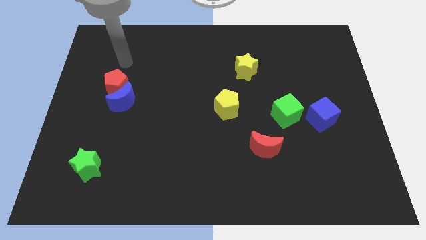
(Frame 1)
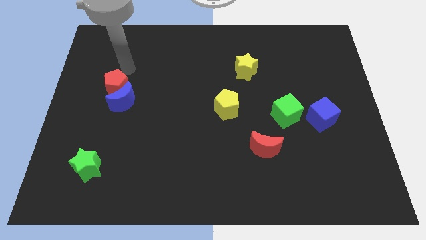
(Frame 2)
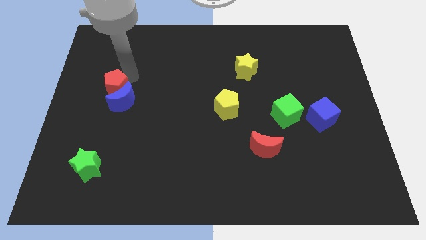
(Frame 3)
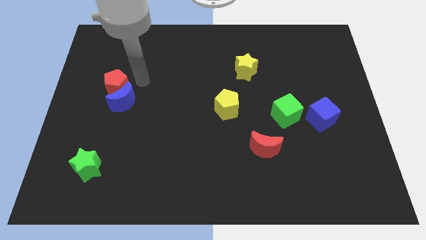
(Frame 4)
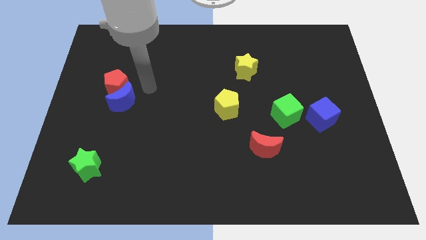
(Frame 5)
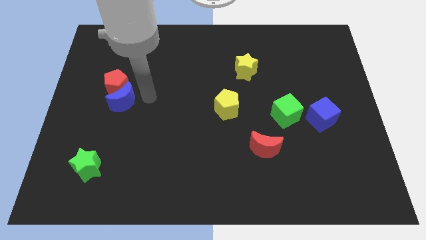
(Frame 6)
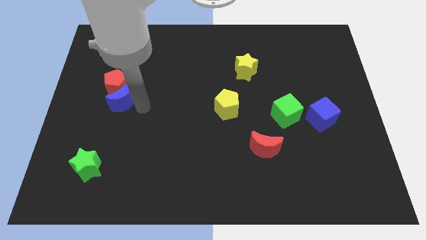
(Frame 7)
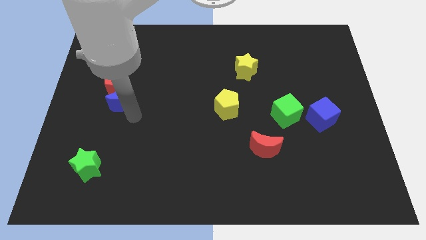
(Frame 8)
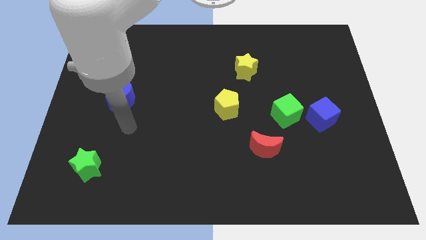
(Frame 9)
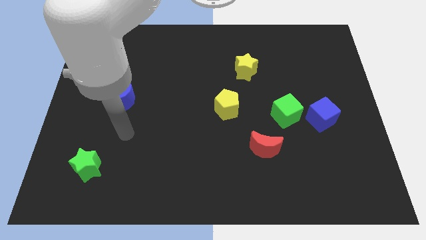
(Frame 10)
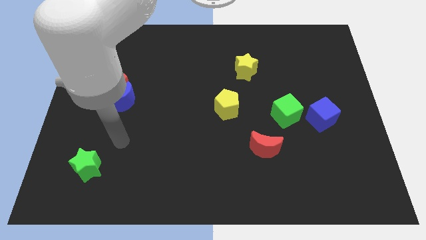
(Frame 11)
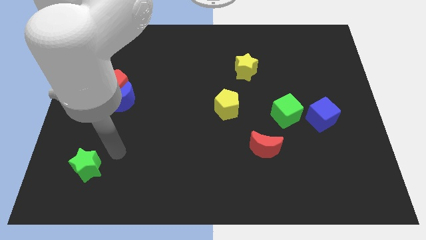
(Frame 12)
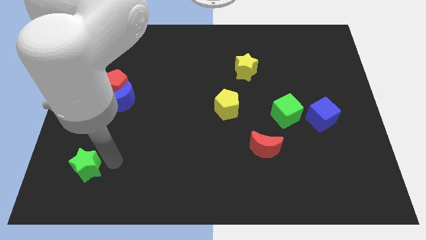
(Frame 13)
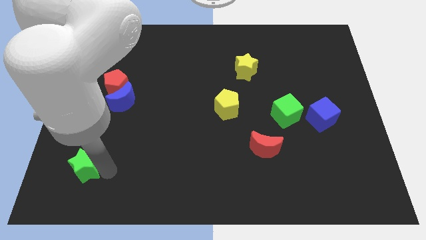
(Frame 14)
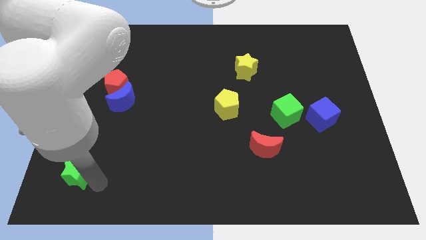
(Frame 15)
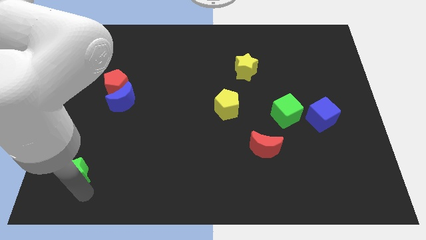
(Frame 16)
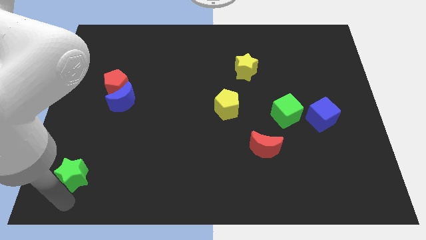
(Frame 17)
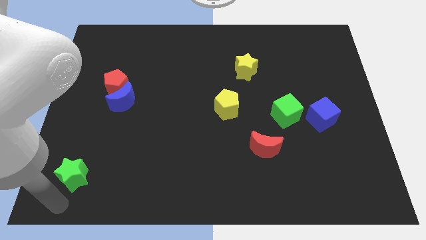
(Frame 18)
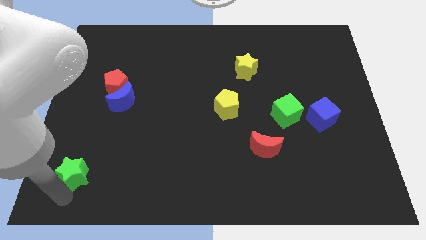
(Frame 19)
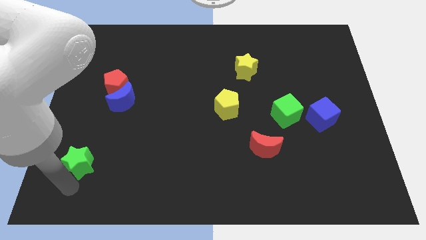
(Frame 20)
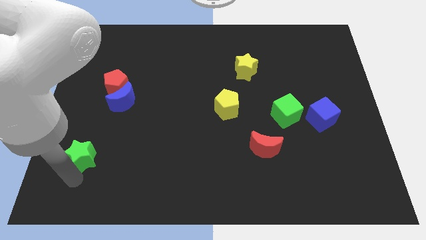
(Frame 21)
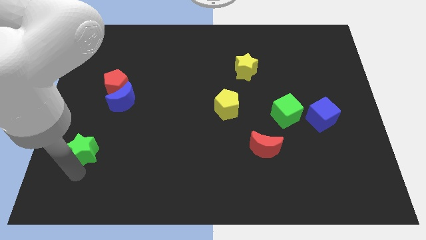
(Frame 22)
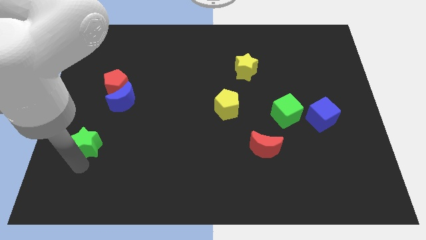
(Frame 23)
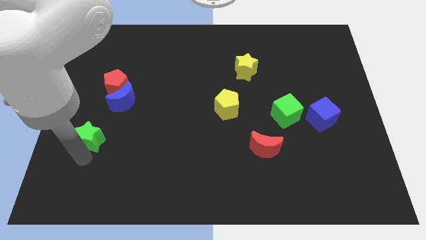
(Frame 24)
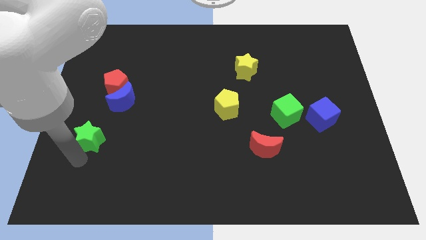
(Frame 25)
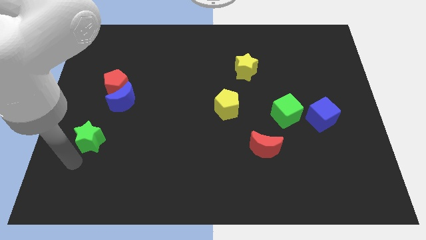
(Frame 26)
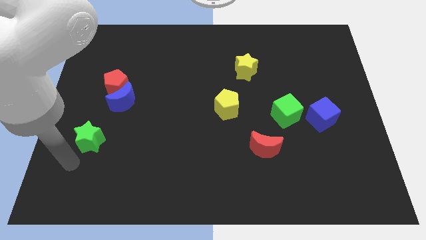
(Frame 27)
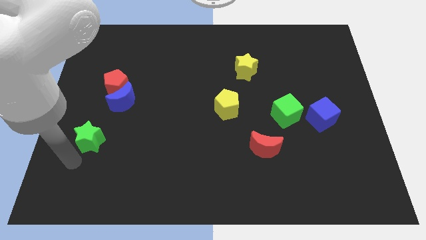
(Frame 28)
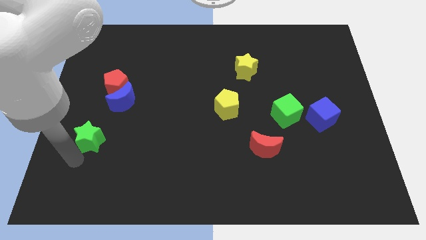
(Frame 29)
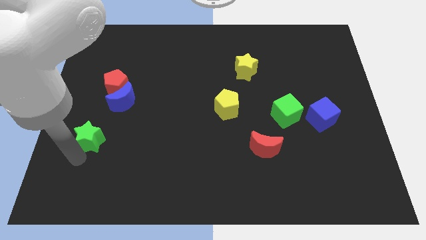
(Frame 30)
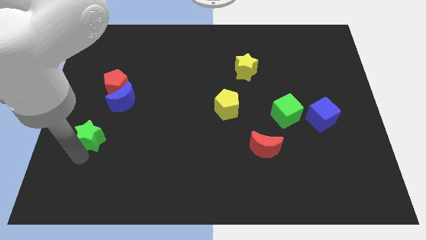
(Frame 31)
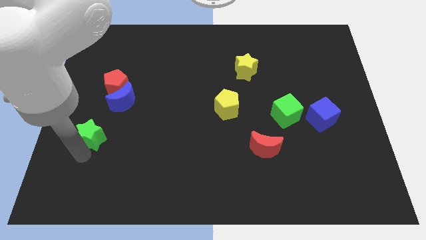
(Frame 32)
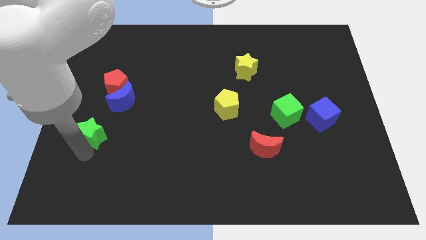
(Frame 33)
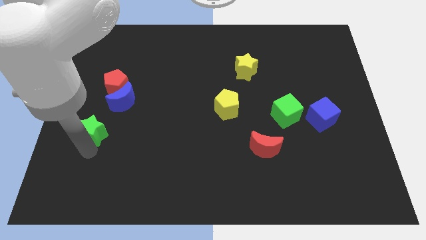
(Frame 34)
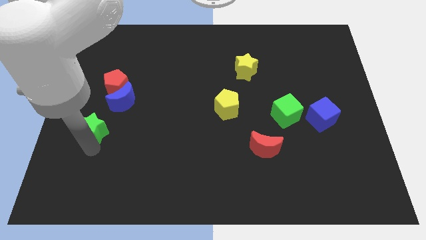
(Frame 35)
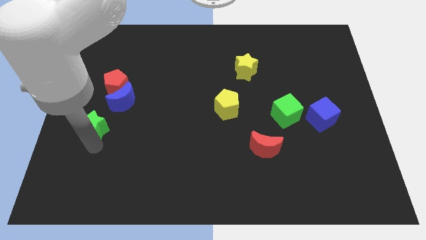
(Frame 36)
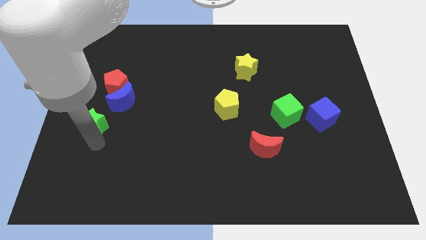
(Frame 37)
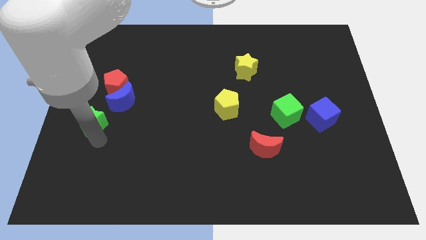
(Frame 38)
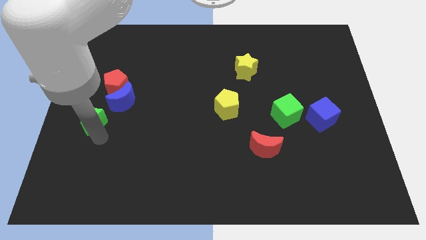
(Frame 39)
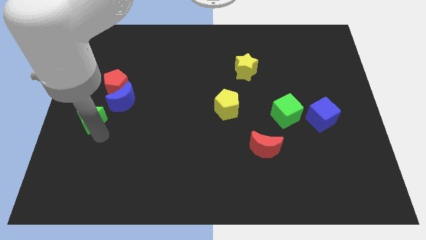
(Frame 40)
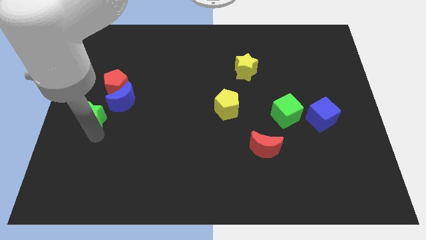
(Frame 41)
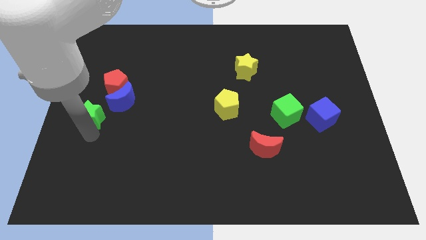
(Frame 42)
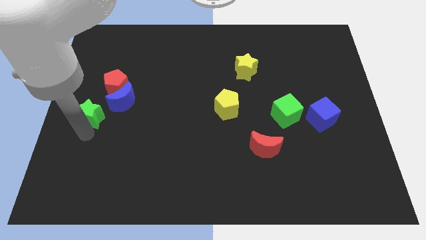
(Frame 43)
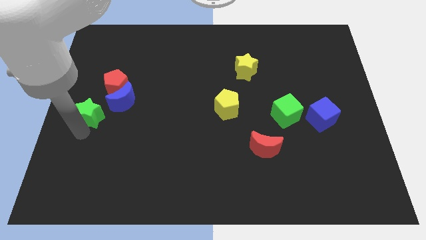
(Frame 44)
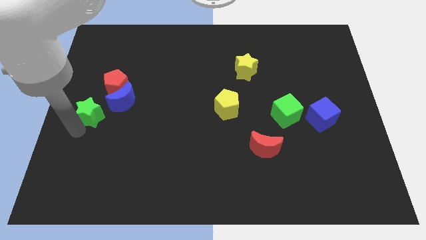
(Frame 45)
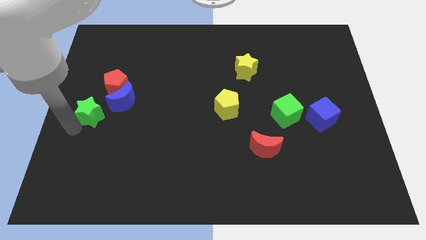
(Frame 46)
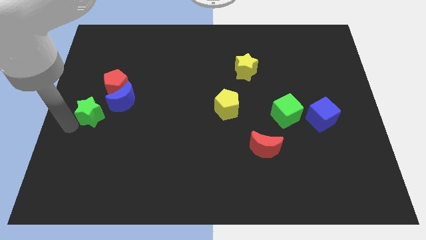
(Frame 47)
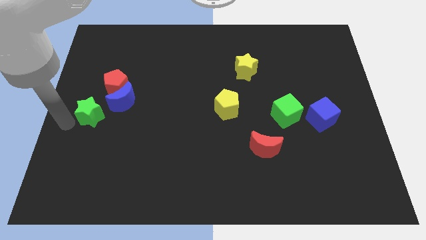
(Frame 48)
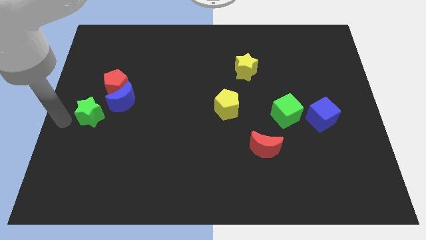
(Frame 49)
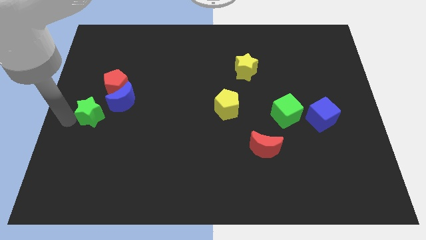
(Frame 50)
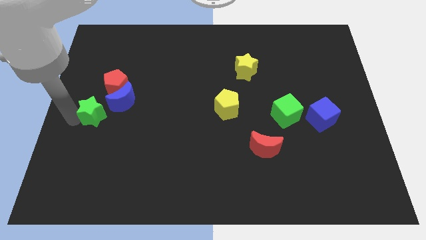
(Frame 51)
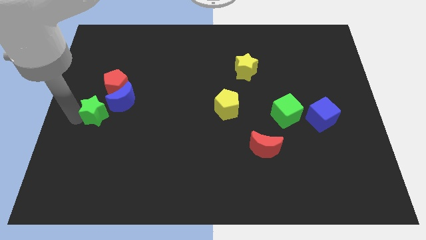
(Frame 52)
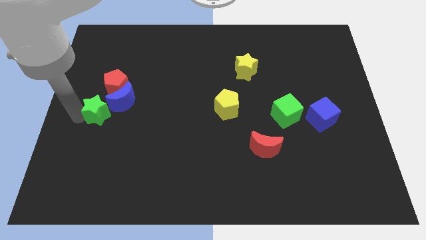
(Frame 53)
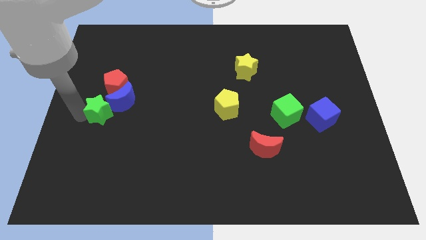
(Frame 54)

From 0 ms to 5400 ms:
move the green star towards the blue moon

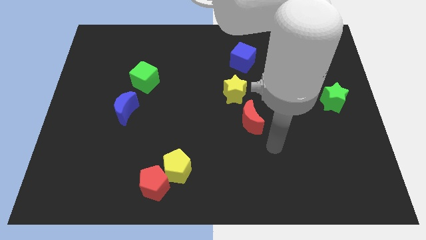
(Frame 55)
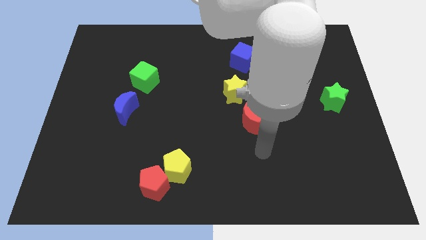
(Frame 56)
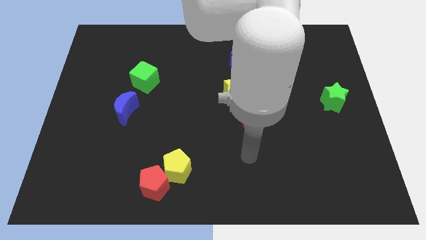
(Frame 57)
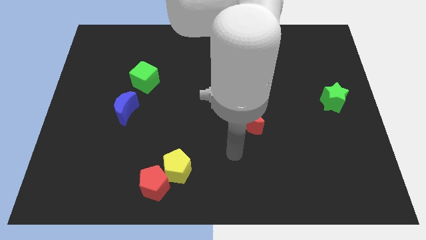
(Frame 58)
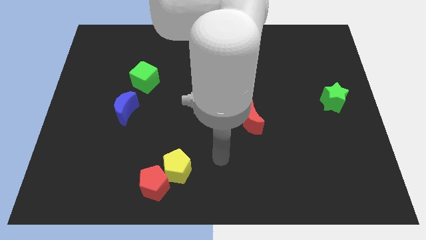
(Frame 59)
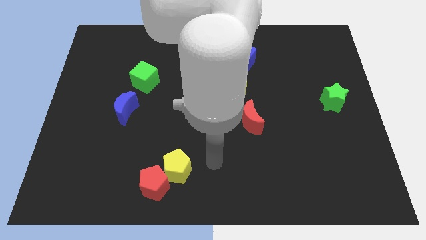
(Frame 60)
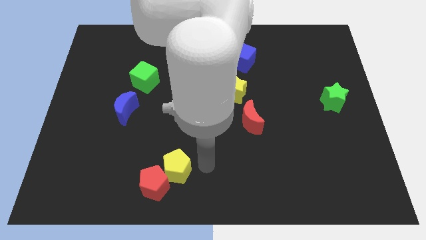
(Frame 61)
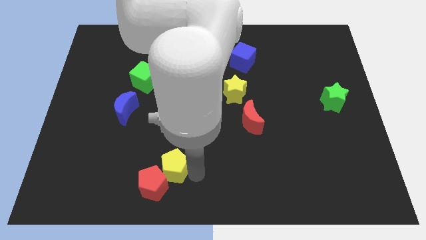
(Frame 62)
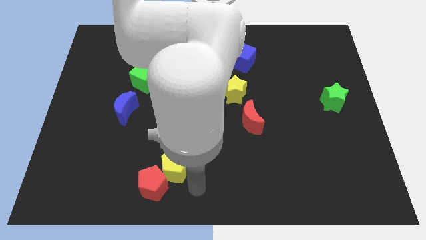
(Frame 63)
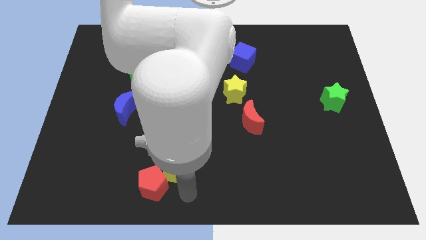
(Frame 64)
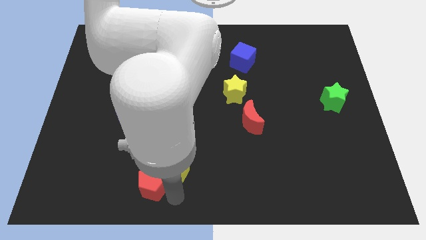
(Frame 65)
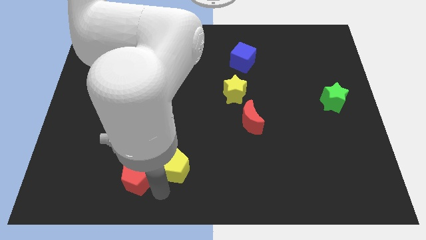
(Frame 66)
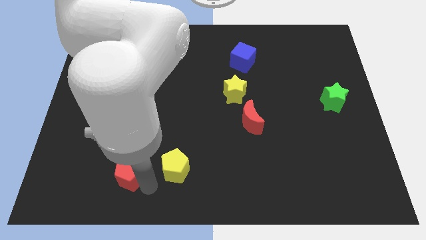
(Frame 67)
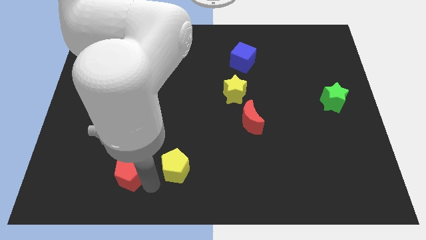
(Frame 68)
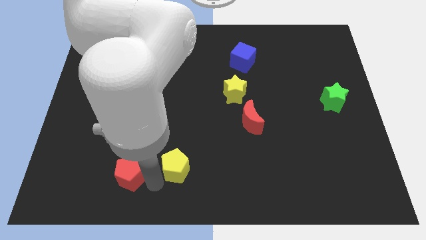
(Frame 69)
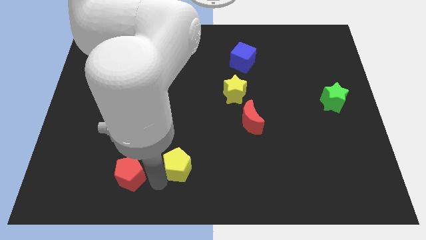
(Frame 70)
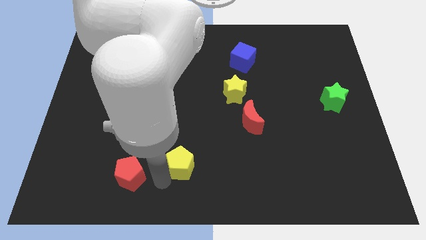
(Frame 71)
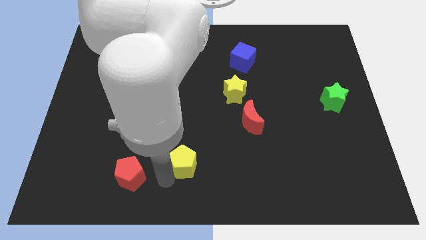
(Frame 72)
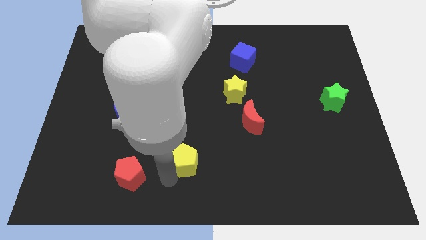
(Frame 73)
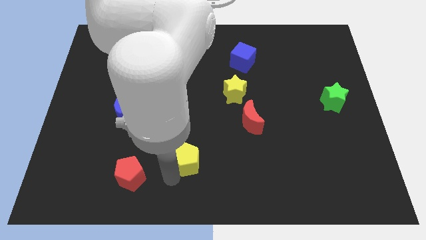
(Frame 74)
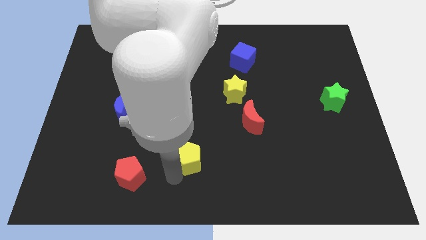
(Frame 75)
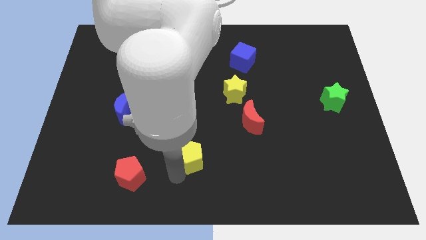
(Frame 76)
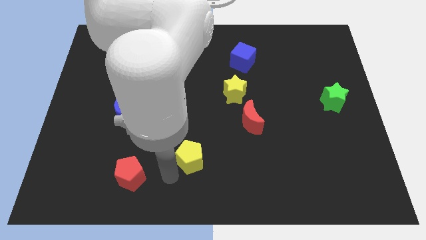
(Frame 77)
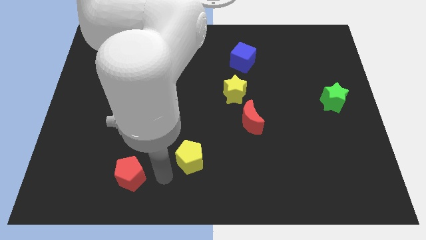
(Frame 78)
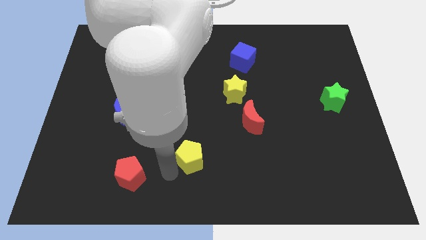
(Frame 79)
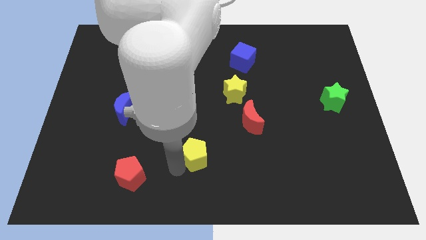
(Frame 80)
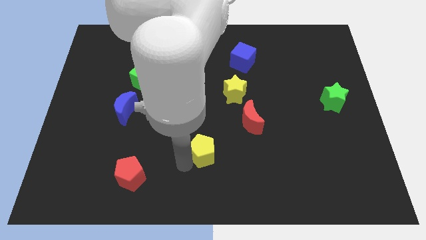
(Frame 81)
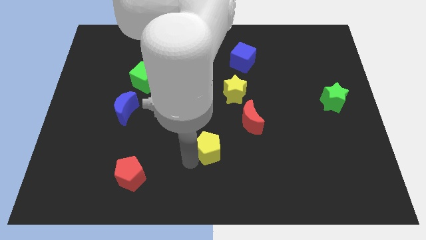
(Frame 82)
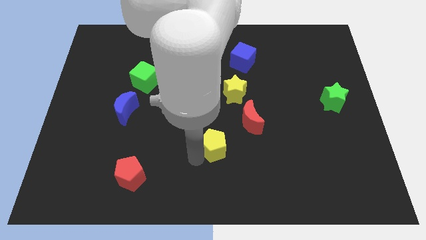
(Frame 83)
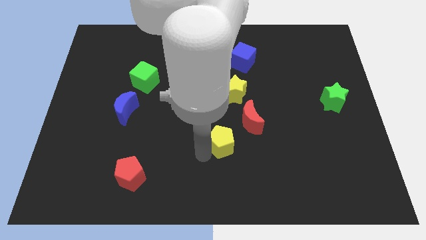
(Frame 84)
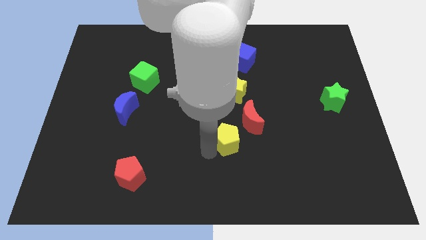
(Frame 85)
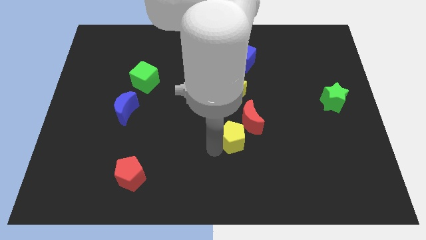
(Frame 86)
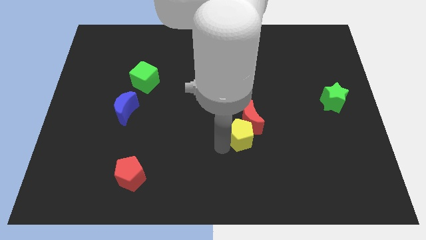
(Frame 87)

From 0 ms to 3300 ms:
slide the yellow pentagon next to the red moon
